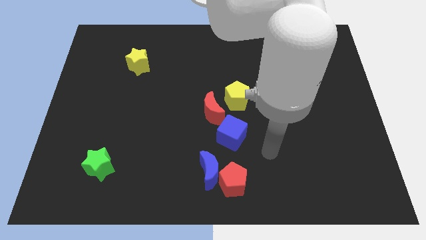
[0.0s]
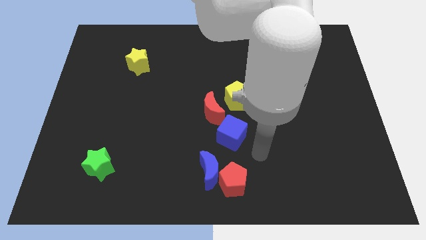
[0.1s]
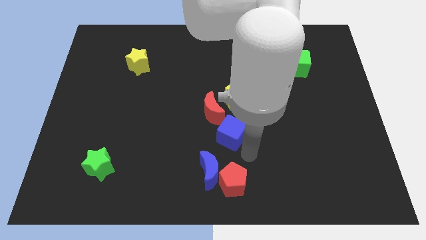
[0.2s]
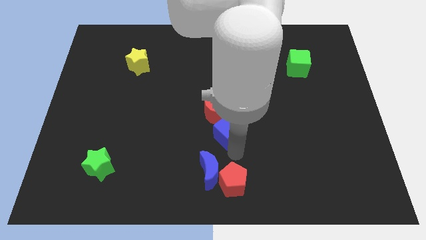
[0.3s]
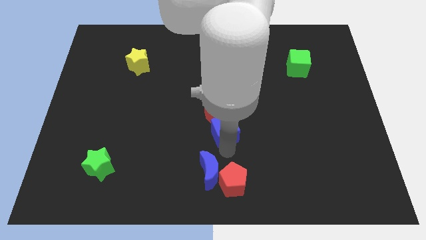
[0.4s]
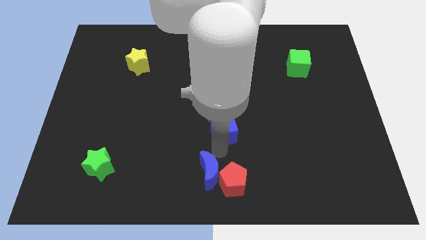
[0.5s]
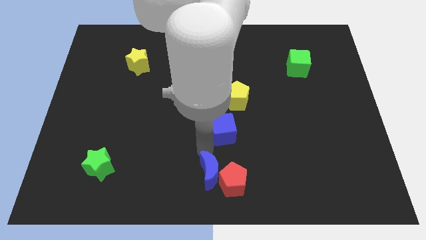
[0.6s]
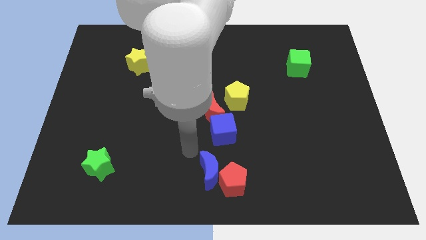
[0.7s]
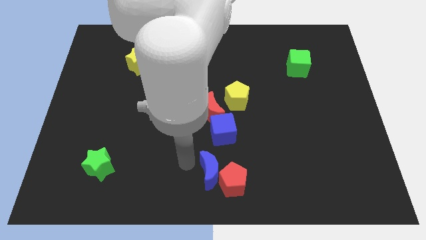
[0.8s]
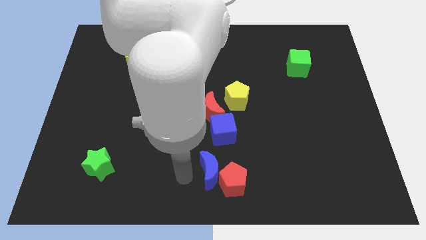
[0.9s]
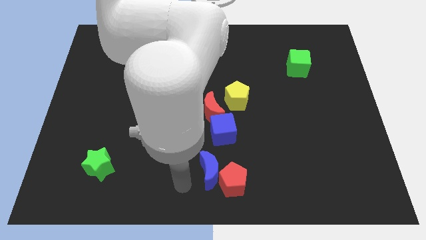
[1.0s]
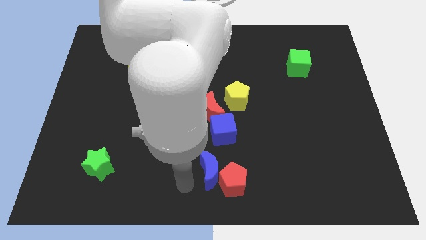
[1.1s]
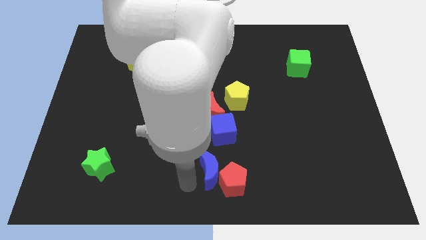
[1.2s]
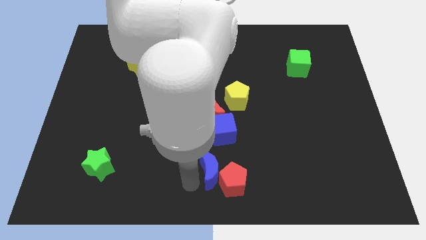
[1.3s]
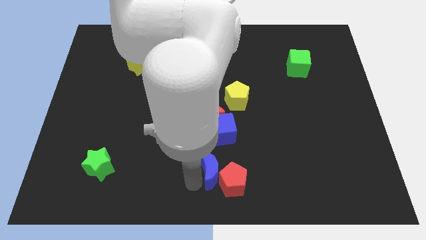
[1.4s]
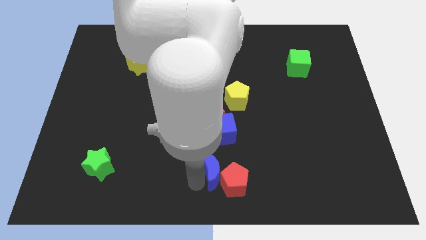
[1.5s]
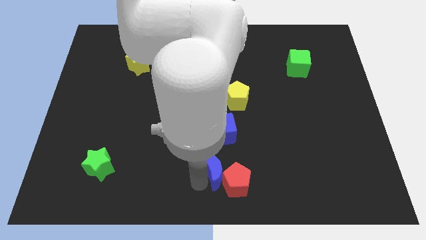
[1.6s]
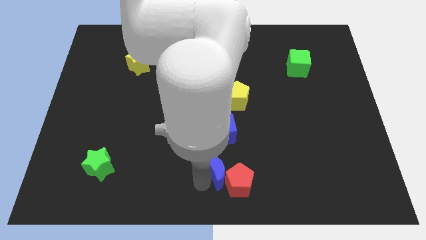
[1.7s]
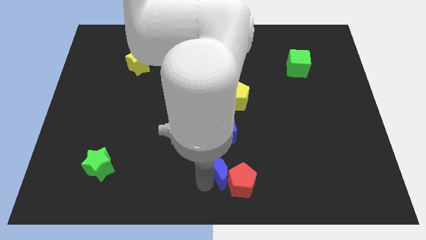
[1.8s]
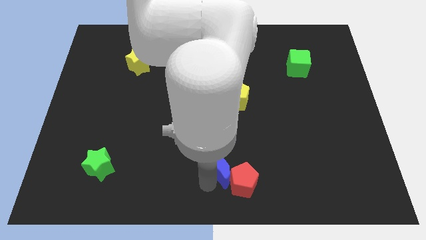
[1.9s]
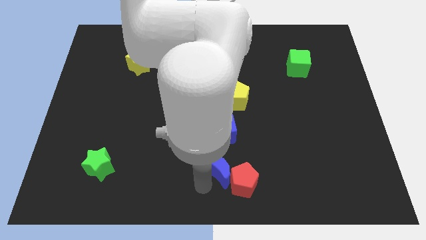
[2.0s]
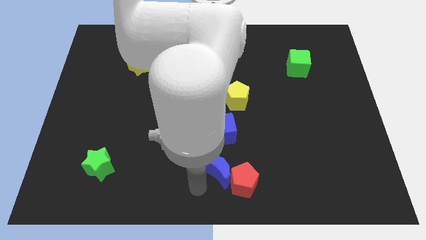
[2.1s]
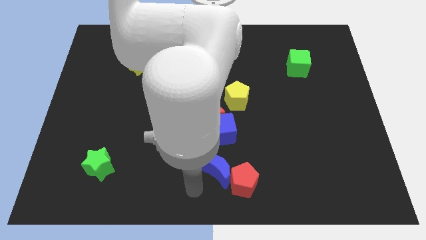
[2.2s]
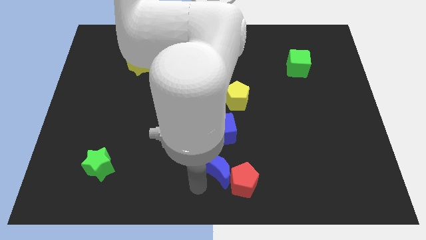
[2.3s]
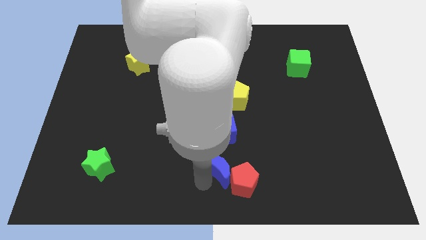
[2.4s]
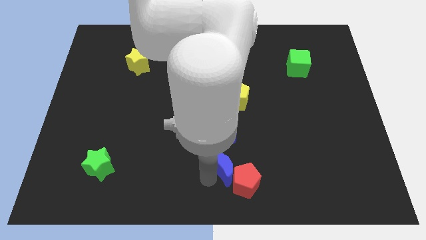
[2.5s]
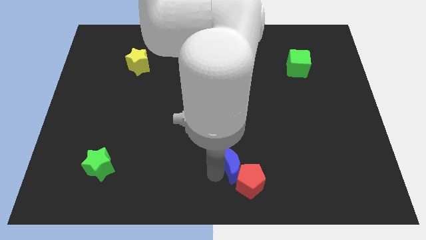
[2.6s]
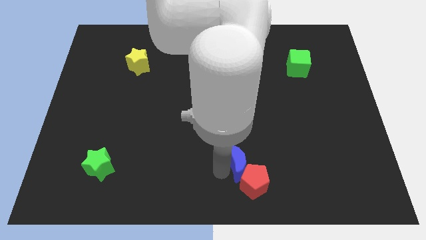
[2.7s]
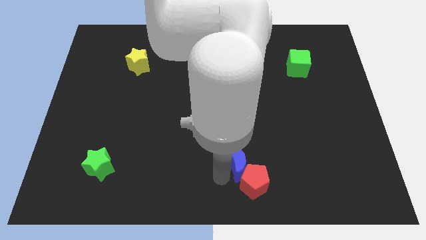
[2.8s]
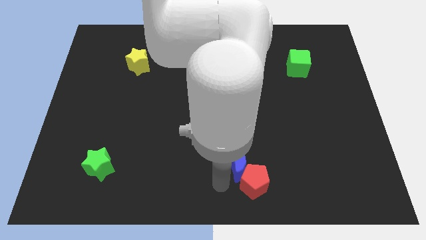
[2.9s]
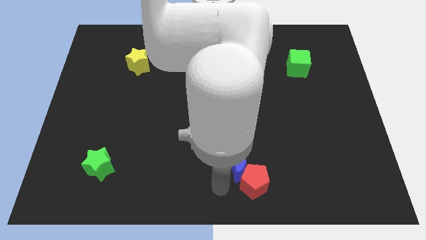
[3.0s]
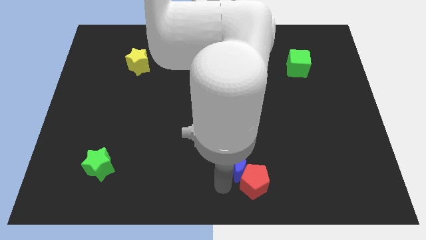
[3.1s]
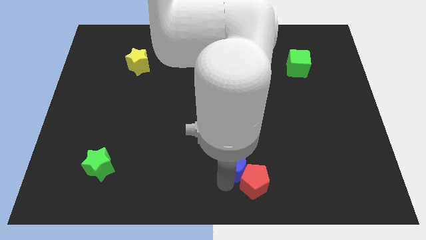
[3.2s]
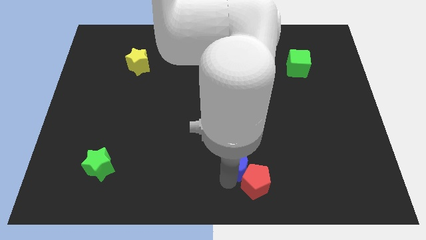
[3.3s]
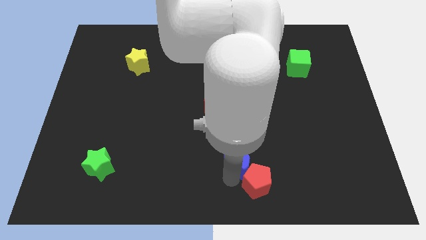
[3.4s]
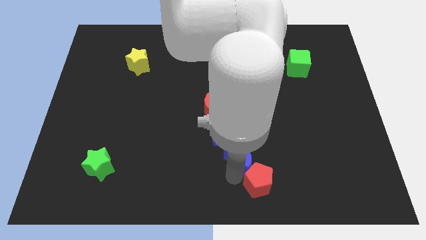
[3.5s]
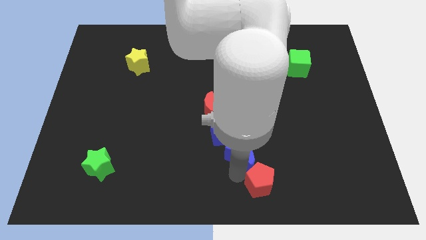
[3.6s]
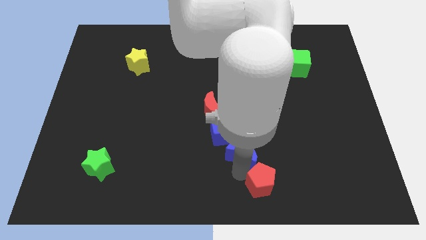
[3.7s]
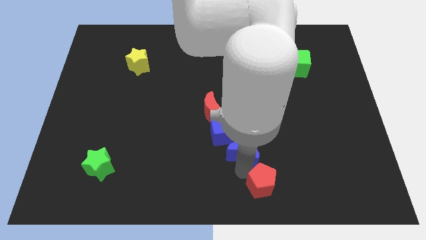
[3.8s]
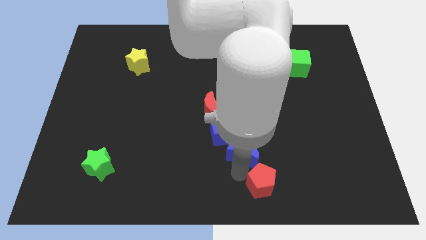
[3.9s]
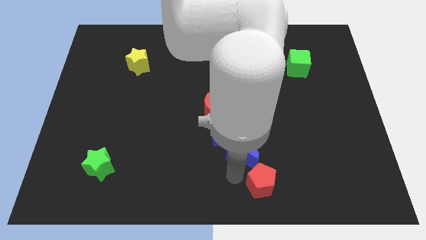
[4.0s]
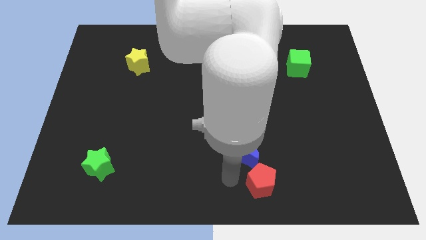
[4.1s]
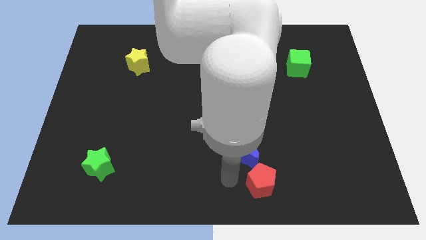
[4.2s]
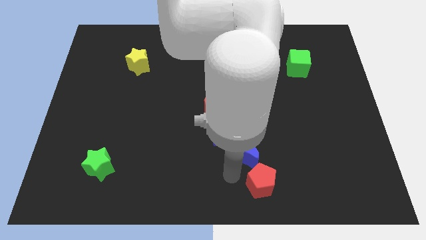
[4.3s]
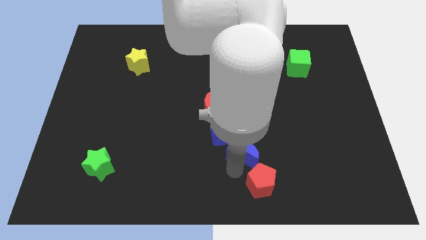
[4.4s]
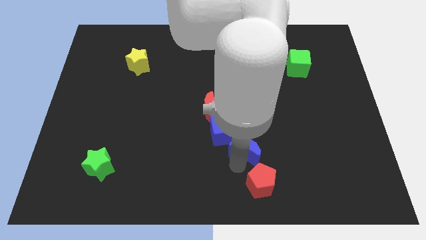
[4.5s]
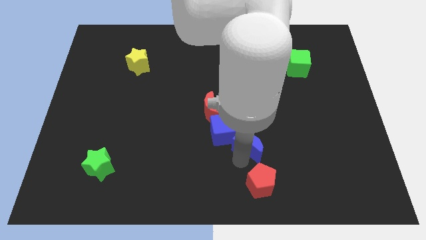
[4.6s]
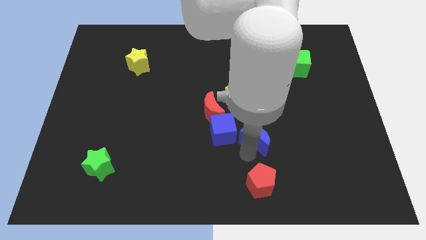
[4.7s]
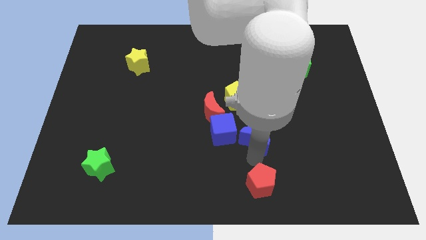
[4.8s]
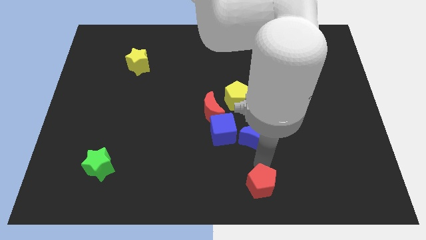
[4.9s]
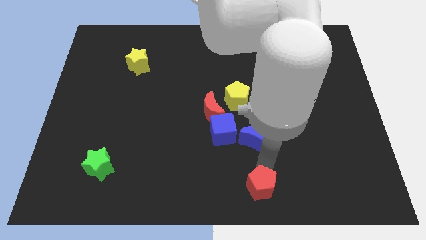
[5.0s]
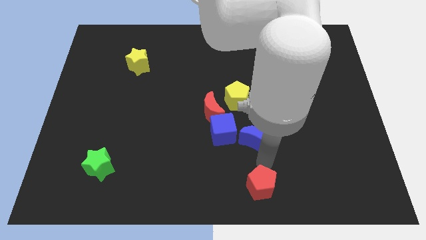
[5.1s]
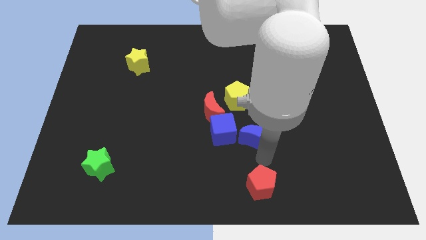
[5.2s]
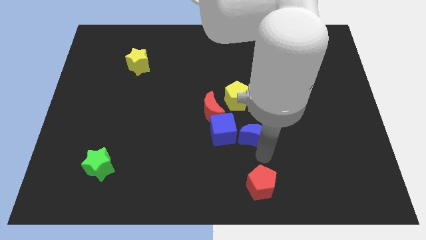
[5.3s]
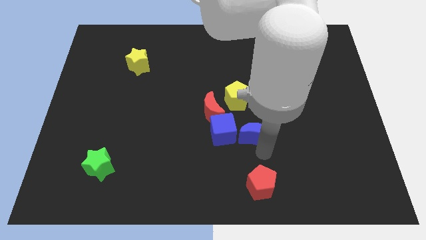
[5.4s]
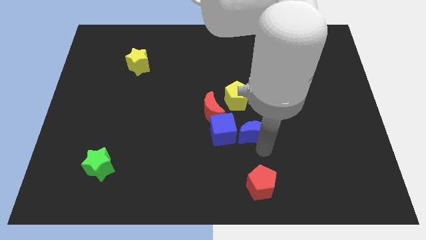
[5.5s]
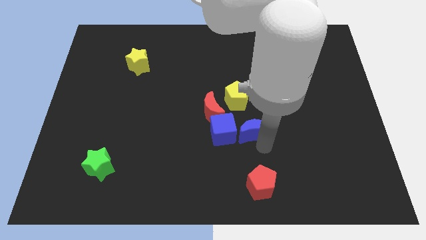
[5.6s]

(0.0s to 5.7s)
put the blue moon to the top right side of the blue cube

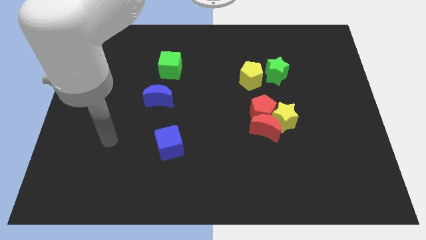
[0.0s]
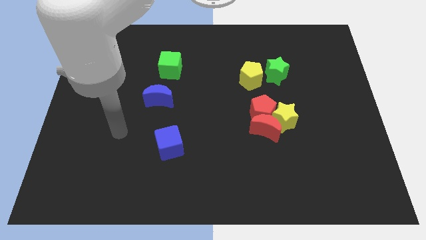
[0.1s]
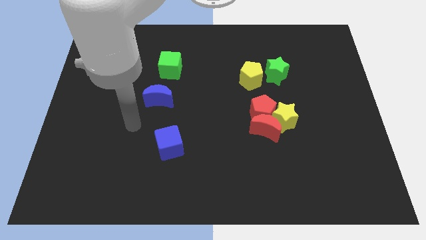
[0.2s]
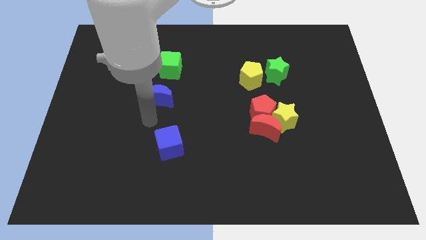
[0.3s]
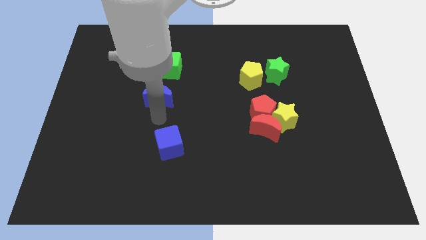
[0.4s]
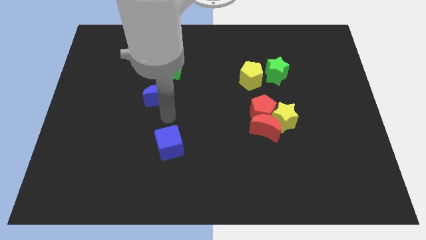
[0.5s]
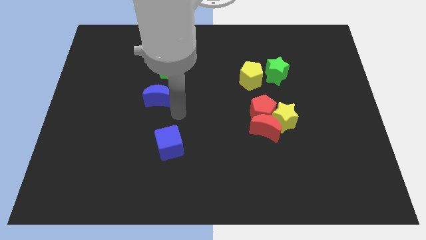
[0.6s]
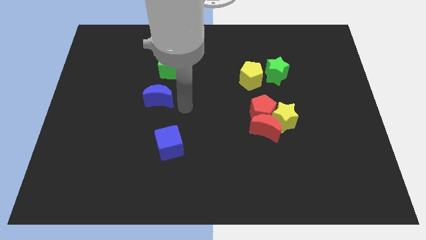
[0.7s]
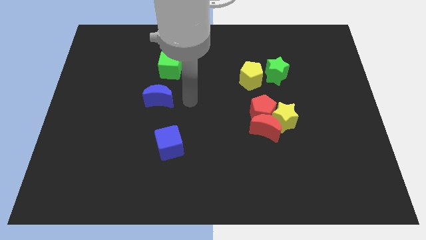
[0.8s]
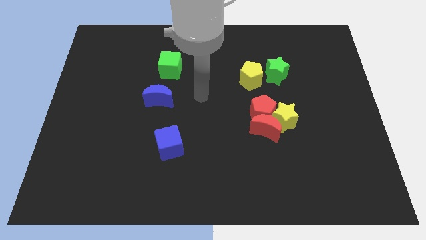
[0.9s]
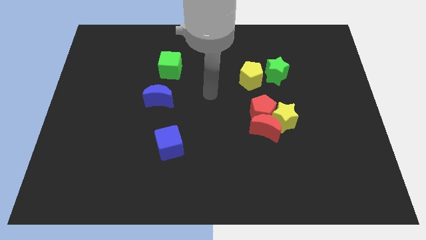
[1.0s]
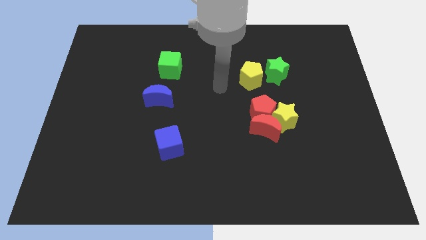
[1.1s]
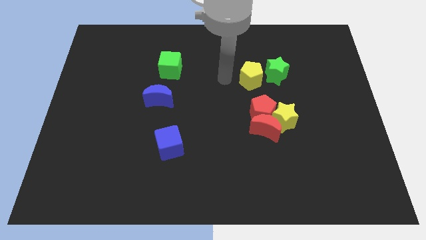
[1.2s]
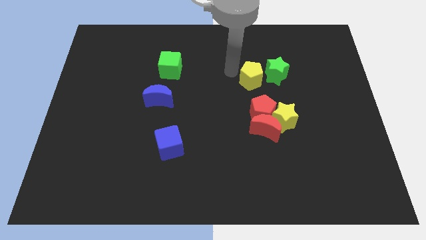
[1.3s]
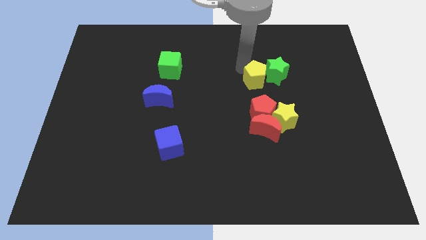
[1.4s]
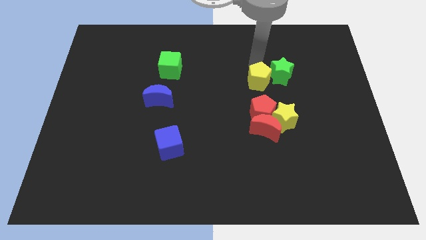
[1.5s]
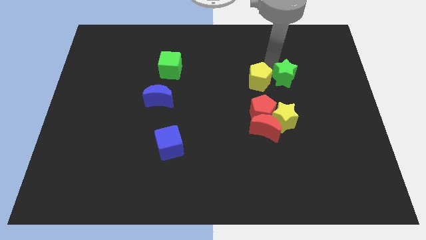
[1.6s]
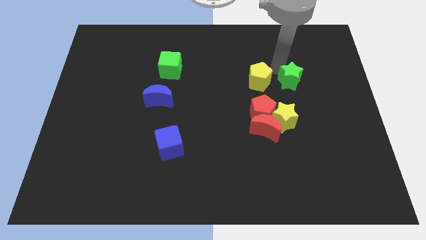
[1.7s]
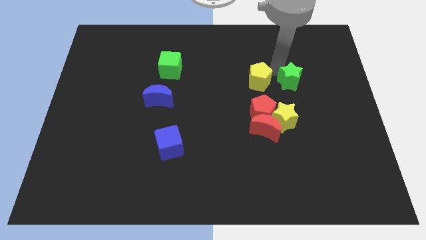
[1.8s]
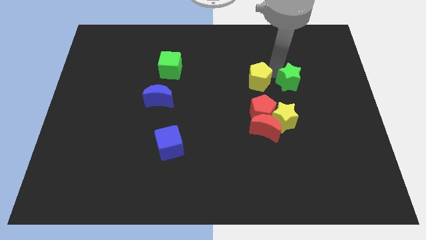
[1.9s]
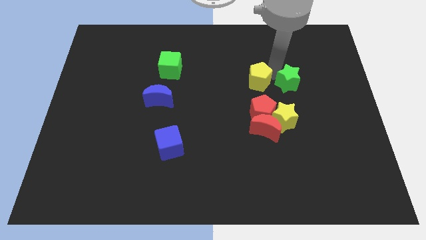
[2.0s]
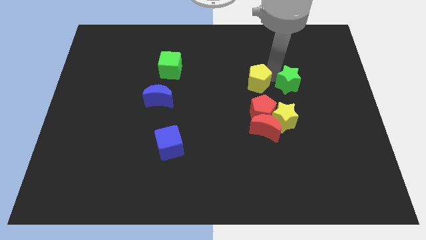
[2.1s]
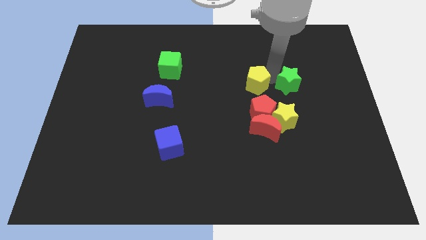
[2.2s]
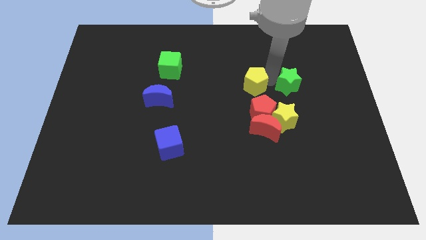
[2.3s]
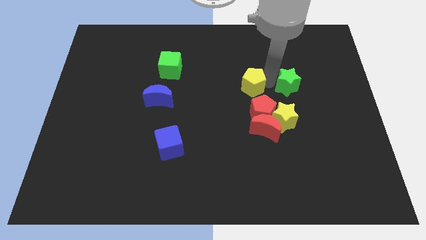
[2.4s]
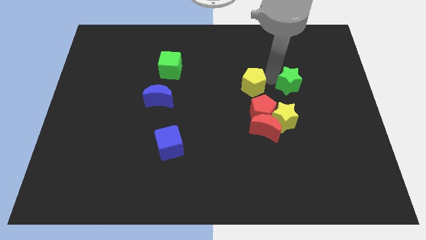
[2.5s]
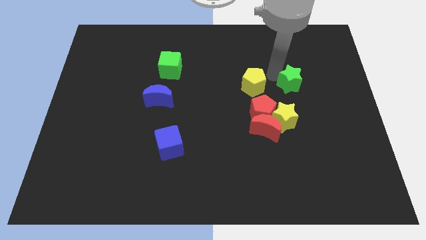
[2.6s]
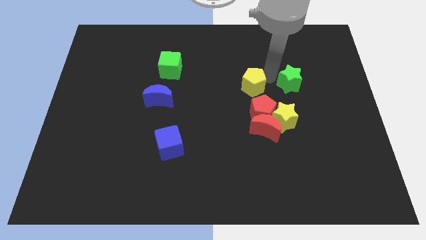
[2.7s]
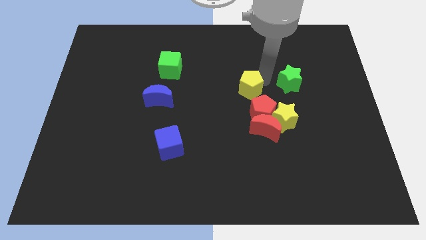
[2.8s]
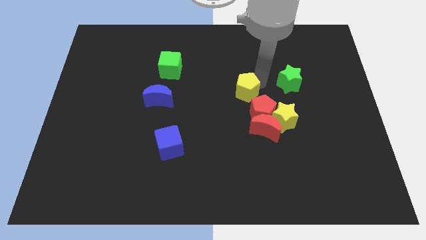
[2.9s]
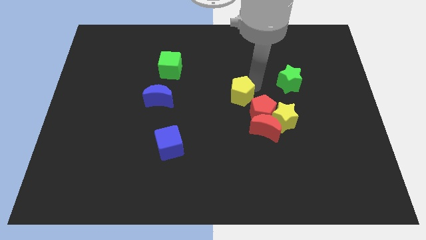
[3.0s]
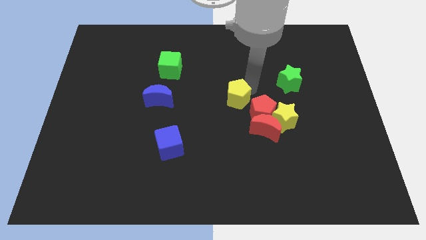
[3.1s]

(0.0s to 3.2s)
push the yellow pentagon to the left of the red pentagon
